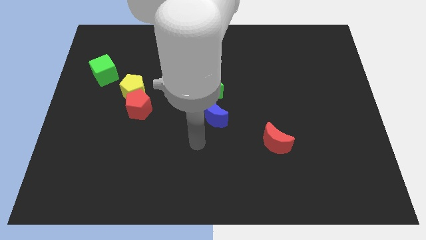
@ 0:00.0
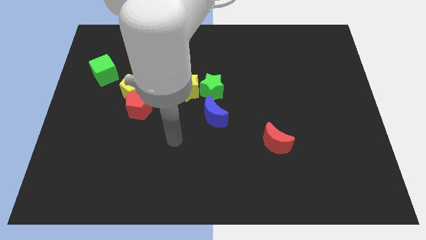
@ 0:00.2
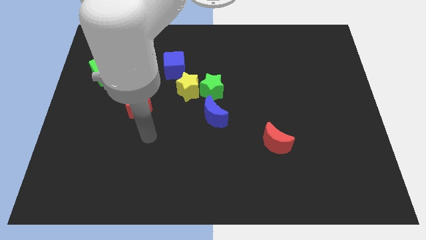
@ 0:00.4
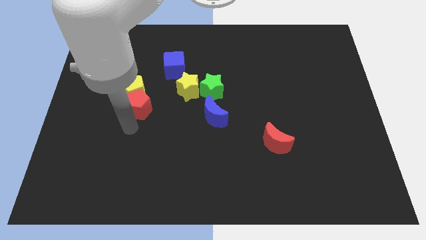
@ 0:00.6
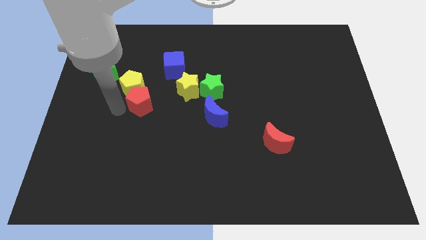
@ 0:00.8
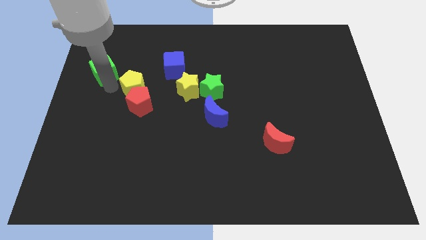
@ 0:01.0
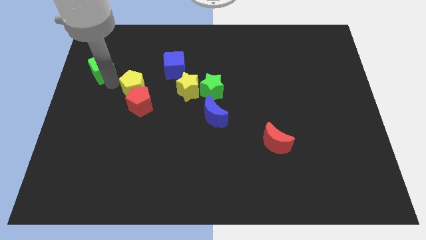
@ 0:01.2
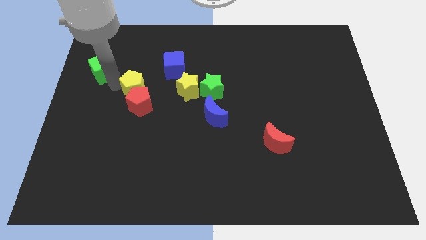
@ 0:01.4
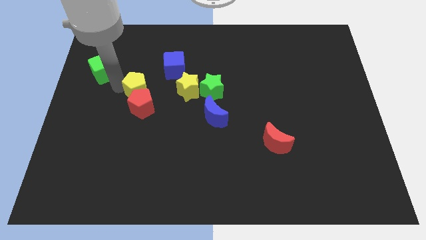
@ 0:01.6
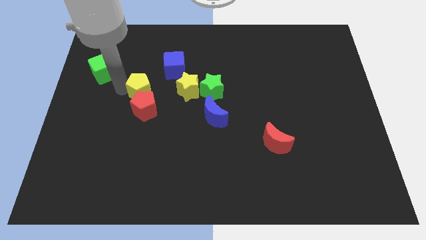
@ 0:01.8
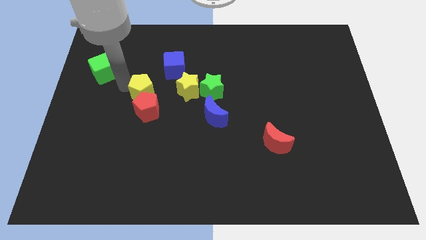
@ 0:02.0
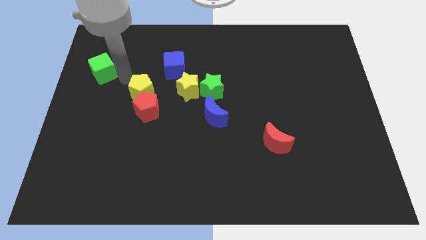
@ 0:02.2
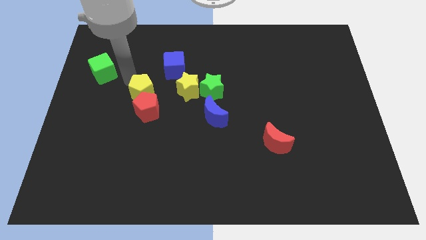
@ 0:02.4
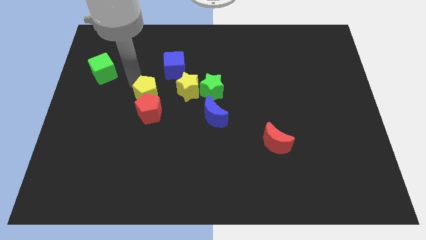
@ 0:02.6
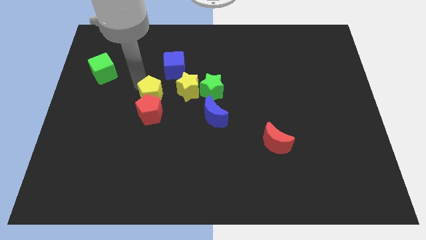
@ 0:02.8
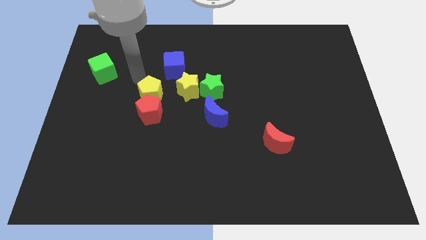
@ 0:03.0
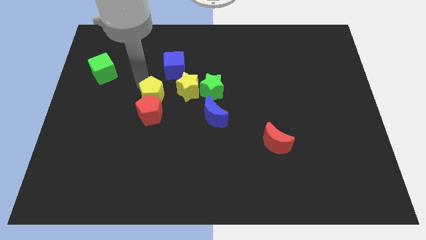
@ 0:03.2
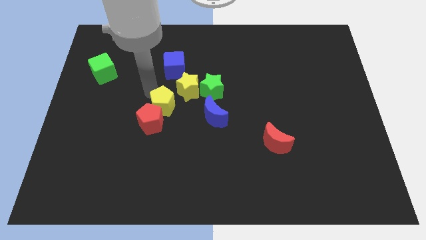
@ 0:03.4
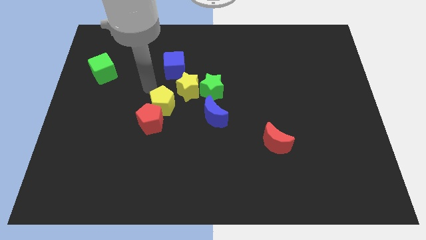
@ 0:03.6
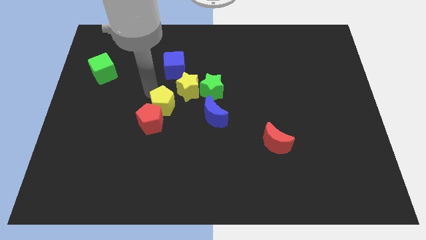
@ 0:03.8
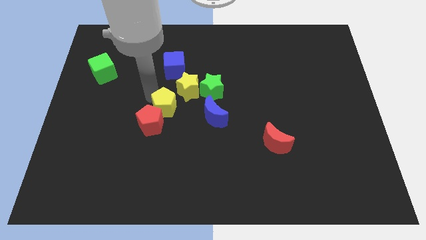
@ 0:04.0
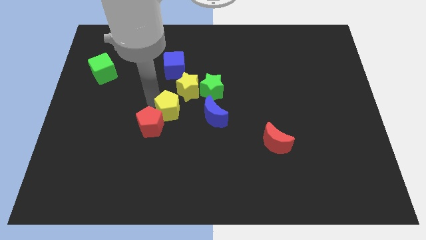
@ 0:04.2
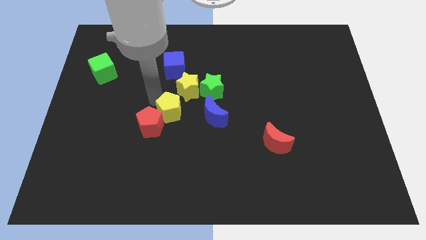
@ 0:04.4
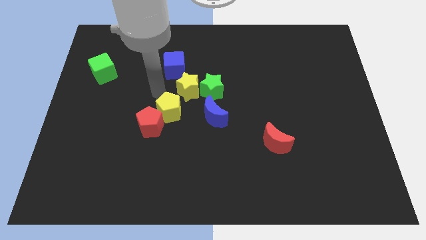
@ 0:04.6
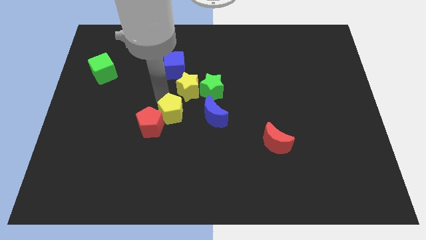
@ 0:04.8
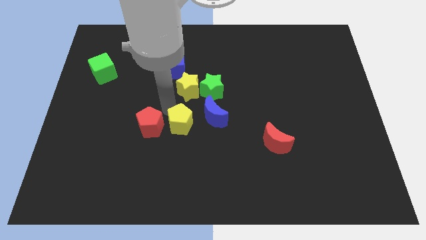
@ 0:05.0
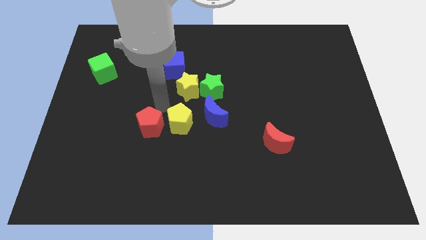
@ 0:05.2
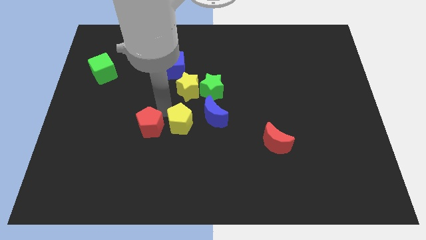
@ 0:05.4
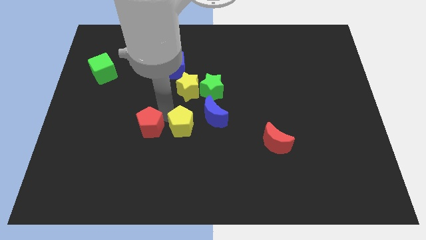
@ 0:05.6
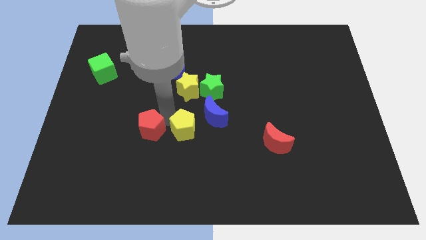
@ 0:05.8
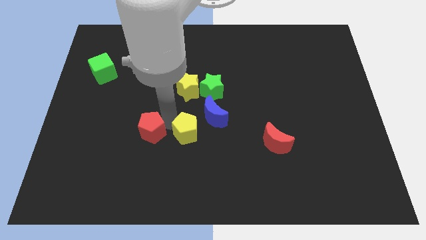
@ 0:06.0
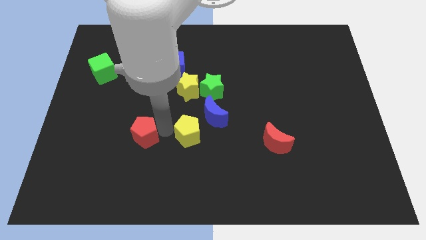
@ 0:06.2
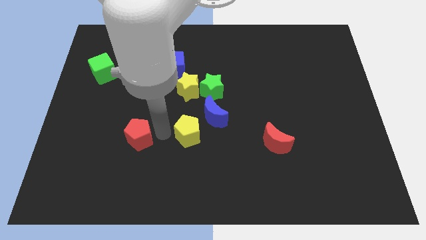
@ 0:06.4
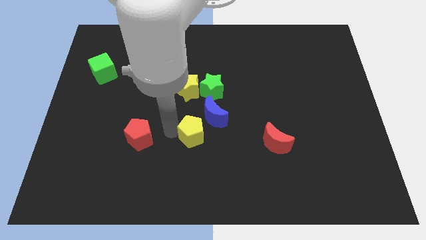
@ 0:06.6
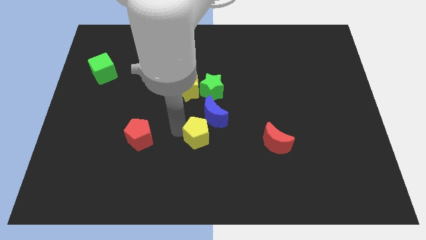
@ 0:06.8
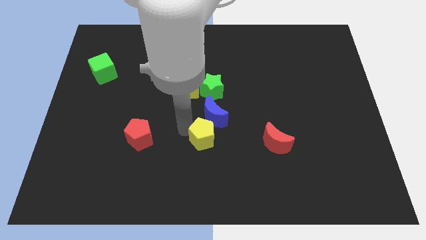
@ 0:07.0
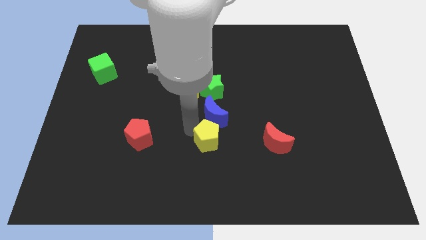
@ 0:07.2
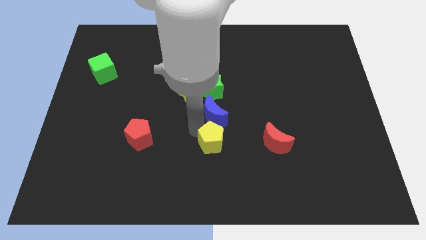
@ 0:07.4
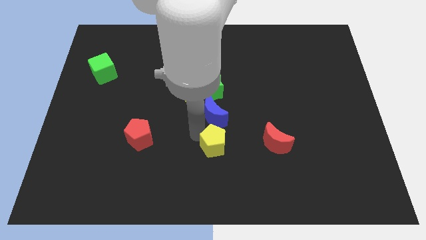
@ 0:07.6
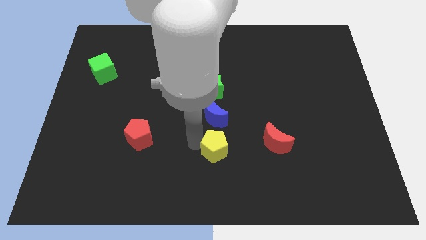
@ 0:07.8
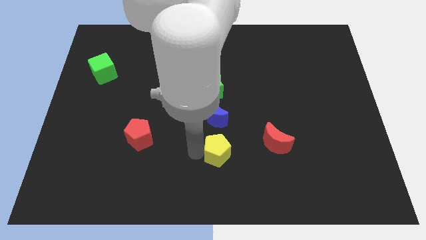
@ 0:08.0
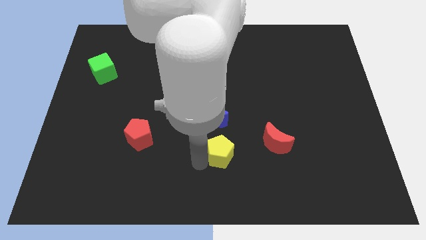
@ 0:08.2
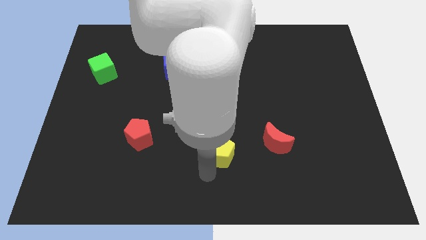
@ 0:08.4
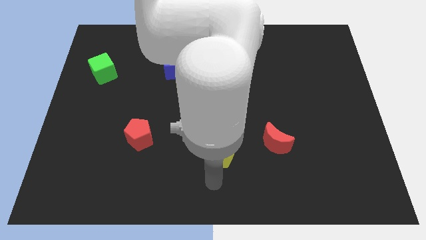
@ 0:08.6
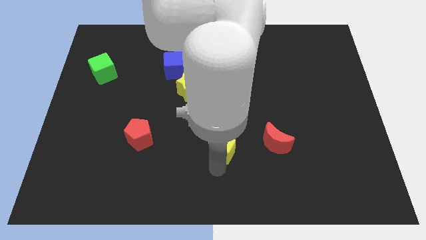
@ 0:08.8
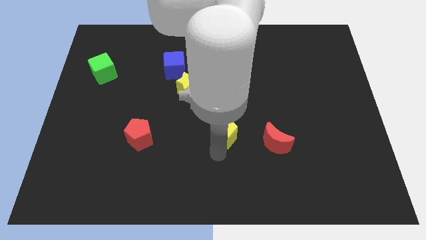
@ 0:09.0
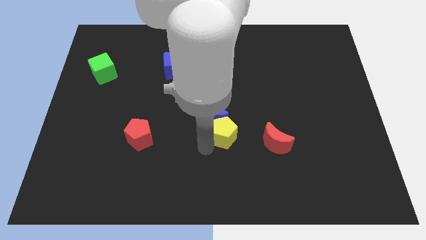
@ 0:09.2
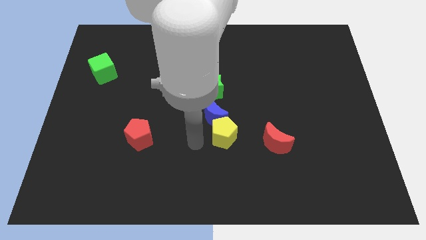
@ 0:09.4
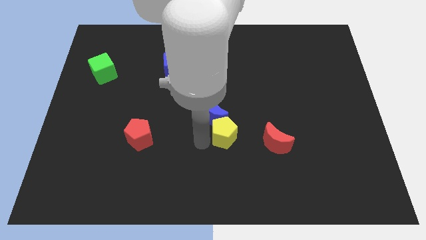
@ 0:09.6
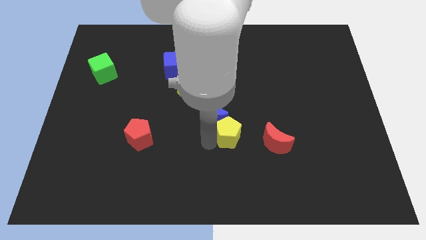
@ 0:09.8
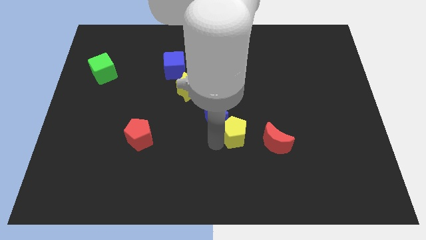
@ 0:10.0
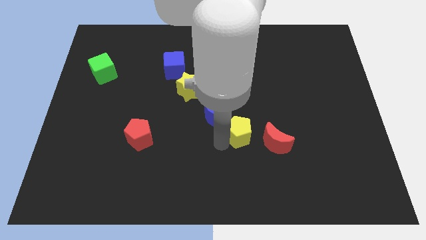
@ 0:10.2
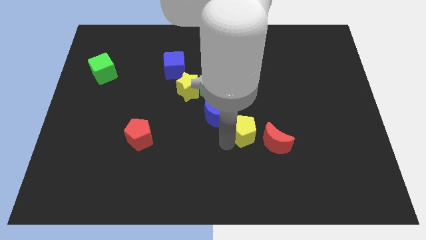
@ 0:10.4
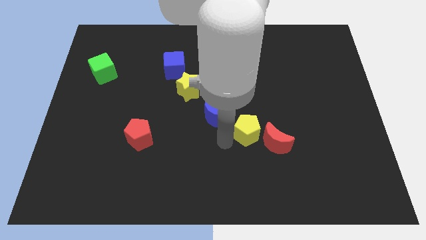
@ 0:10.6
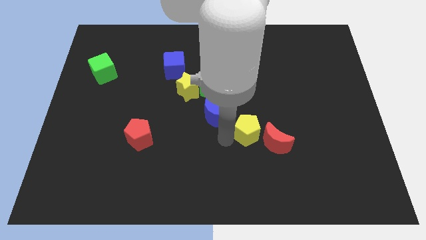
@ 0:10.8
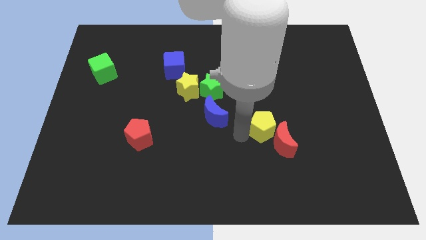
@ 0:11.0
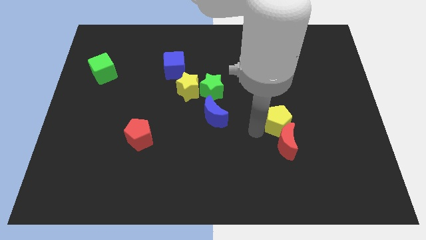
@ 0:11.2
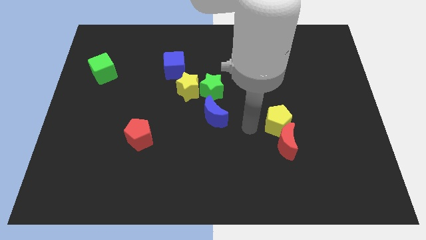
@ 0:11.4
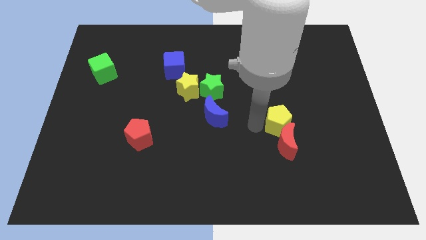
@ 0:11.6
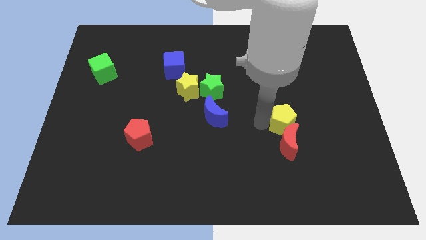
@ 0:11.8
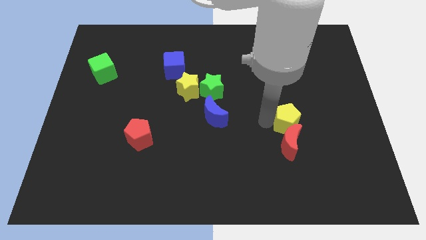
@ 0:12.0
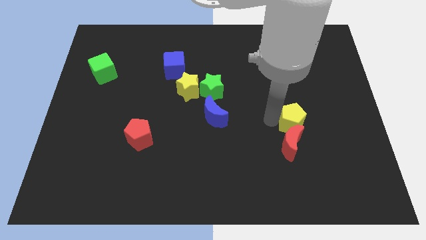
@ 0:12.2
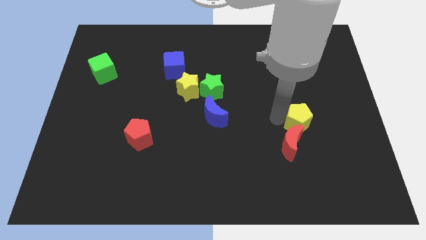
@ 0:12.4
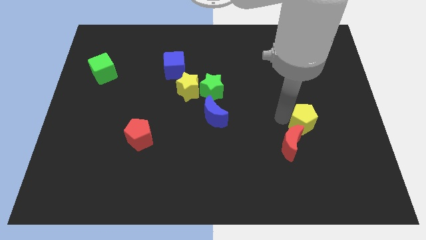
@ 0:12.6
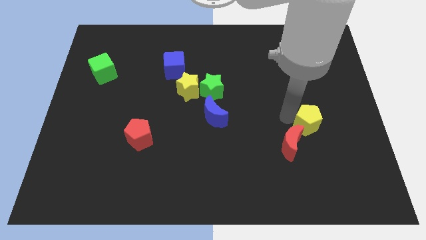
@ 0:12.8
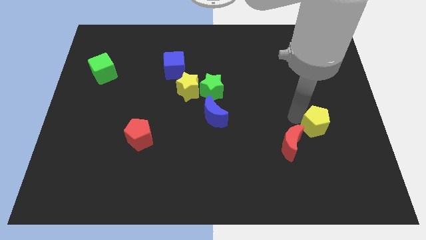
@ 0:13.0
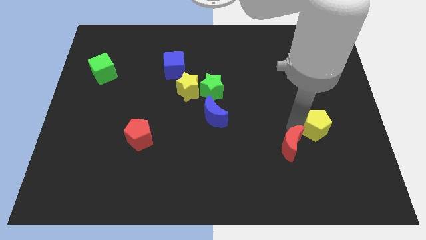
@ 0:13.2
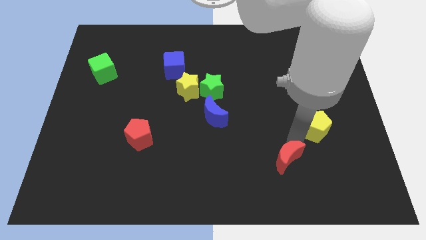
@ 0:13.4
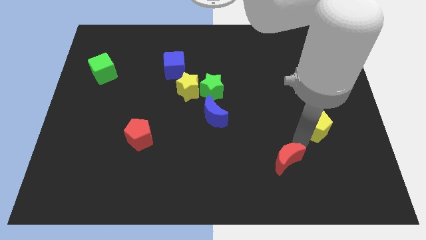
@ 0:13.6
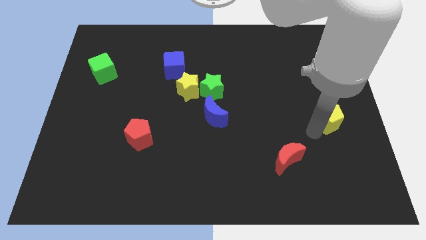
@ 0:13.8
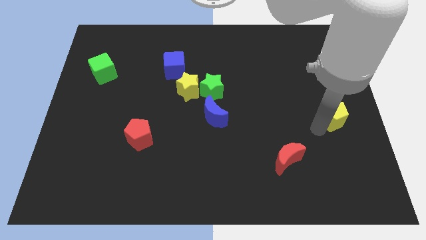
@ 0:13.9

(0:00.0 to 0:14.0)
put the yellow pentagon to the right side

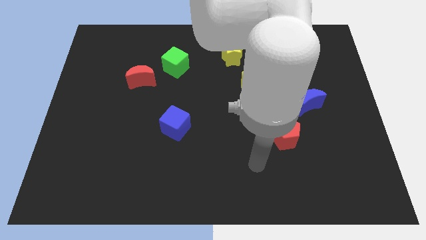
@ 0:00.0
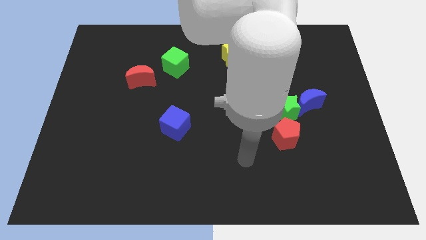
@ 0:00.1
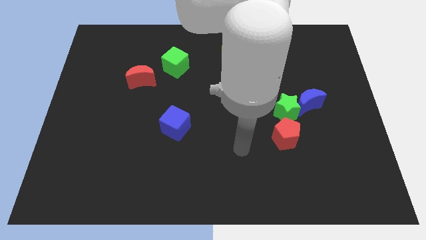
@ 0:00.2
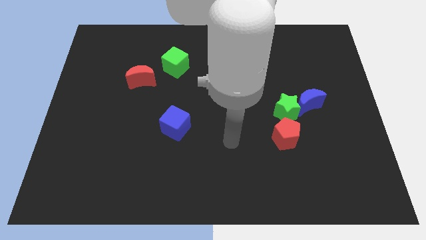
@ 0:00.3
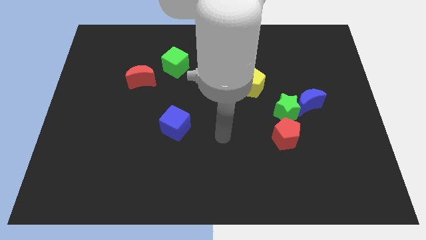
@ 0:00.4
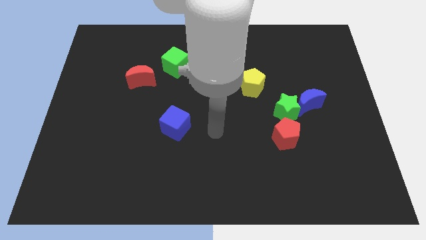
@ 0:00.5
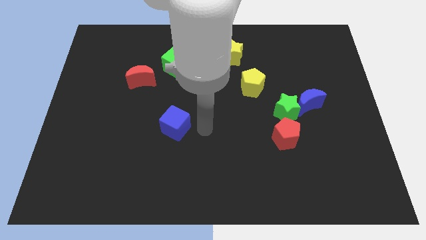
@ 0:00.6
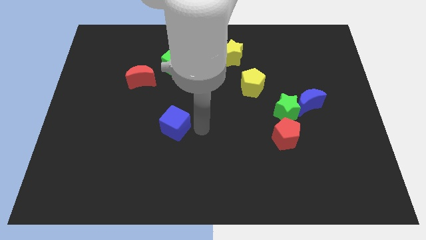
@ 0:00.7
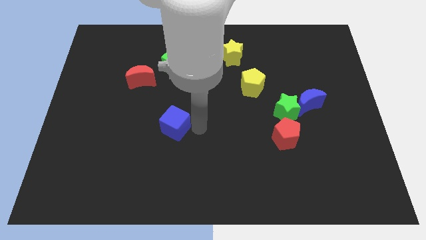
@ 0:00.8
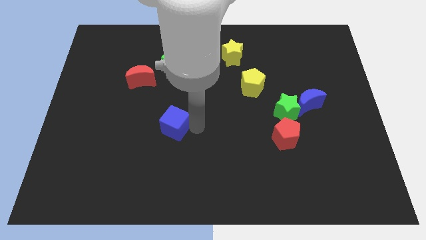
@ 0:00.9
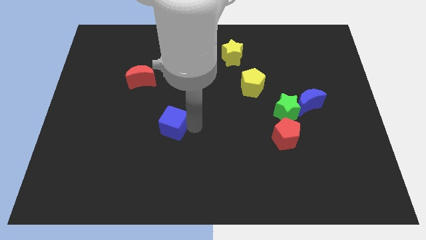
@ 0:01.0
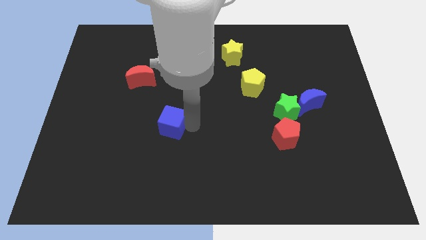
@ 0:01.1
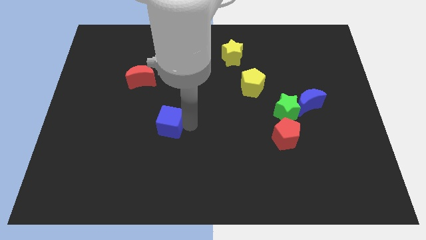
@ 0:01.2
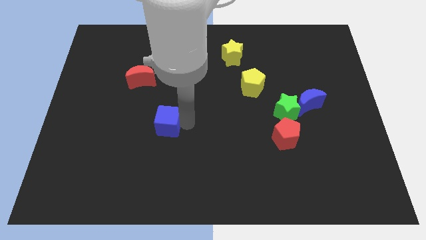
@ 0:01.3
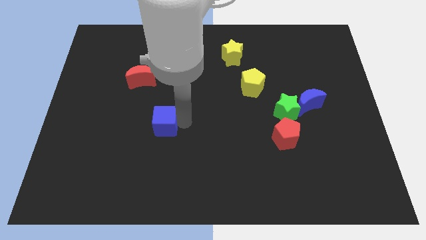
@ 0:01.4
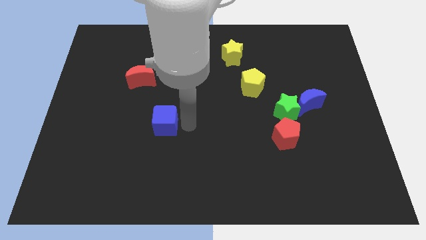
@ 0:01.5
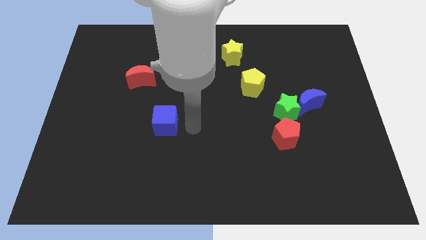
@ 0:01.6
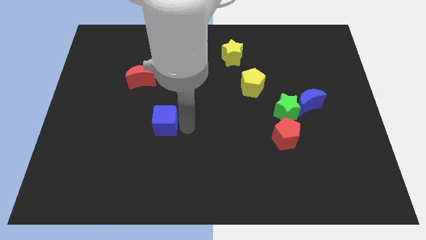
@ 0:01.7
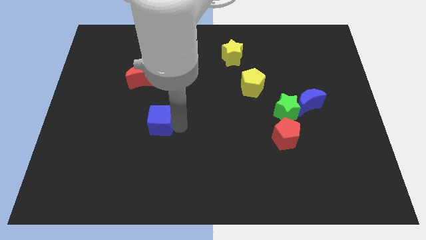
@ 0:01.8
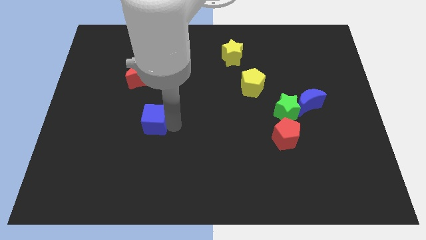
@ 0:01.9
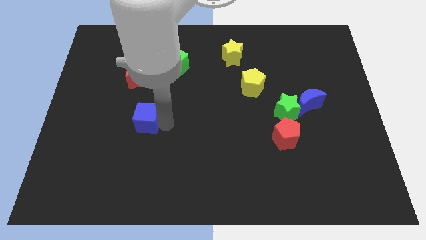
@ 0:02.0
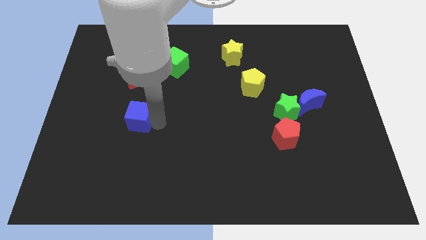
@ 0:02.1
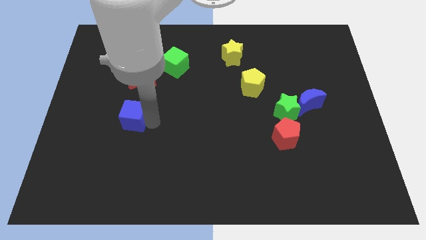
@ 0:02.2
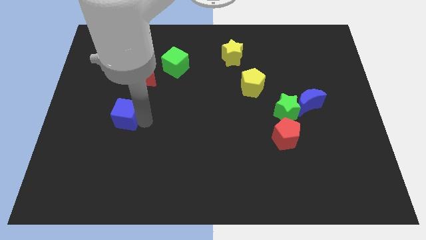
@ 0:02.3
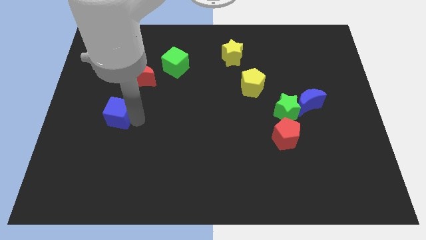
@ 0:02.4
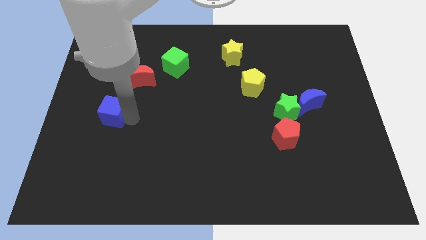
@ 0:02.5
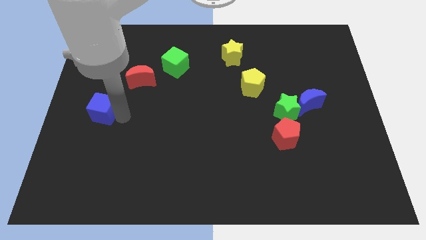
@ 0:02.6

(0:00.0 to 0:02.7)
slide the blue cube to the center left
